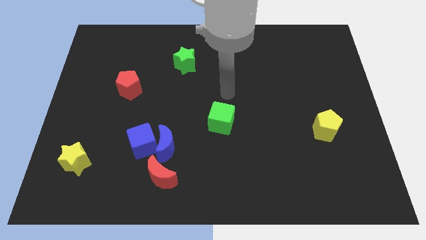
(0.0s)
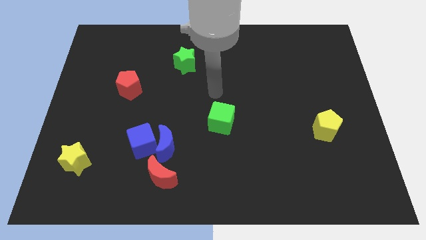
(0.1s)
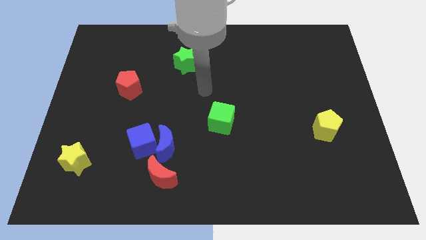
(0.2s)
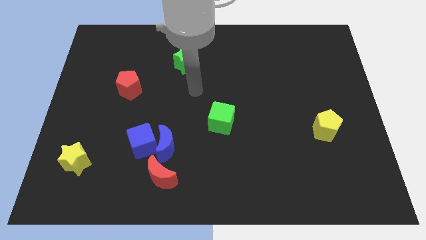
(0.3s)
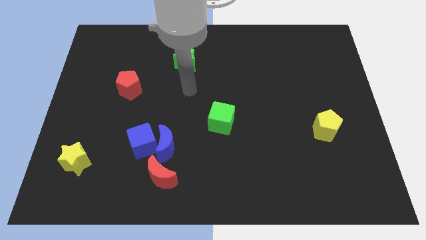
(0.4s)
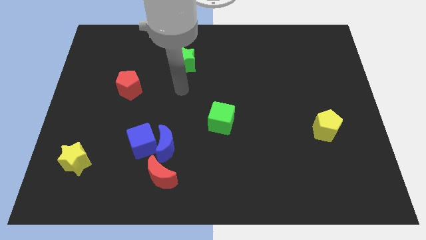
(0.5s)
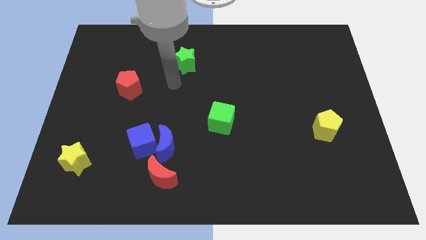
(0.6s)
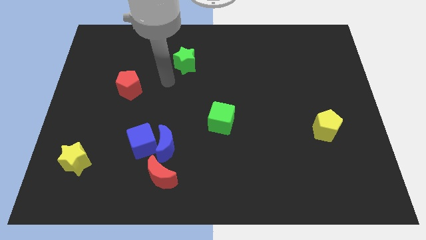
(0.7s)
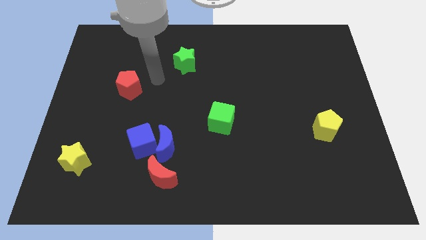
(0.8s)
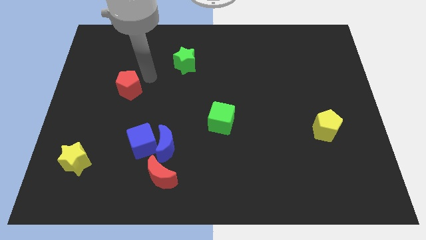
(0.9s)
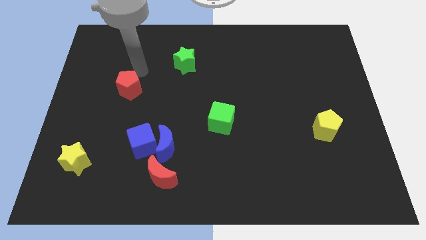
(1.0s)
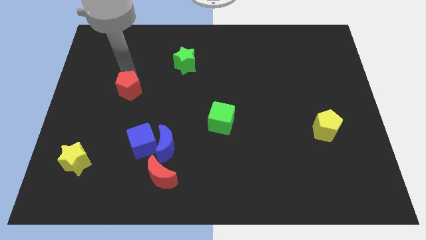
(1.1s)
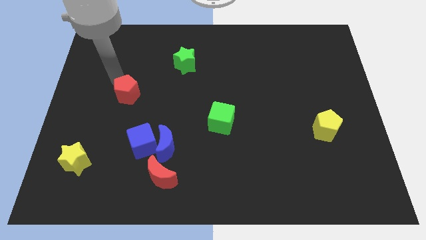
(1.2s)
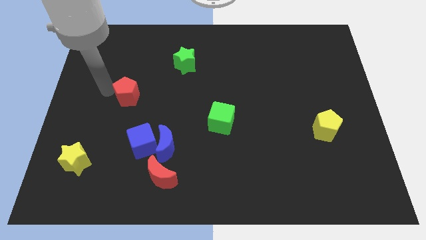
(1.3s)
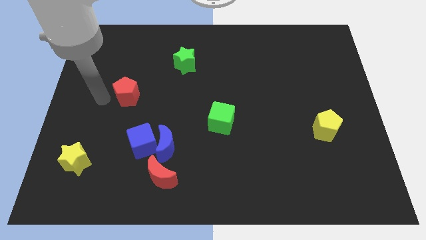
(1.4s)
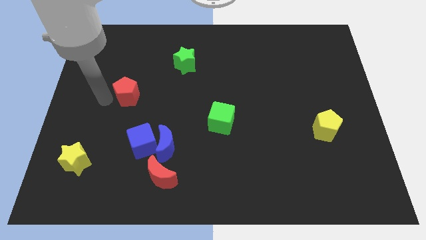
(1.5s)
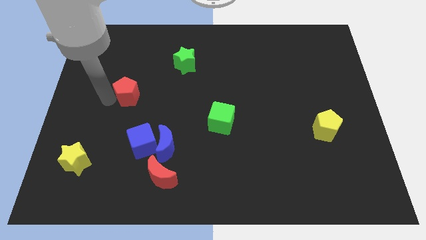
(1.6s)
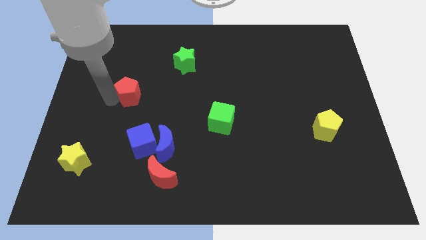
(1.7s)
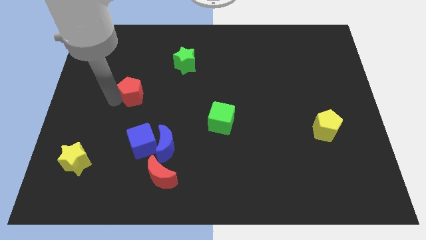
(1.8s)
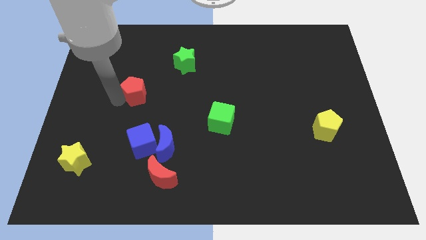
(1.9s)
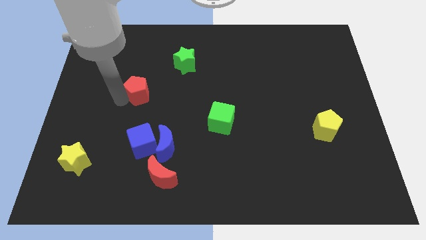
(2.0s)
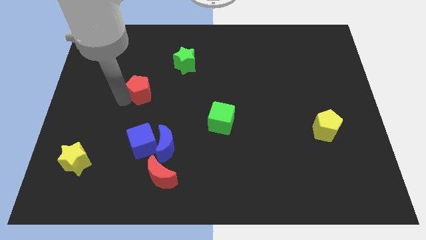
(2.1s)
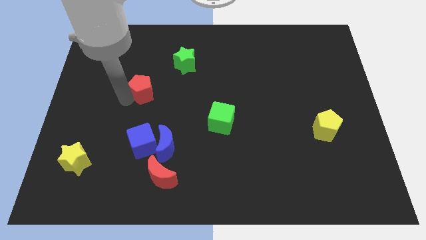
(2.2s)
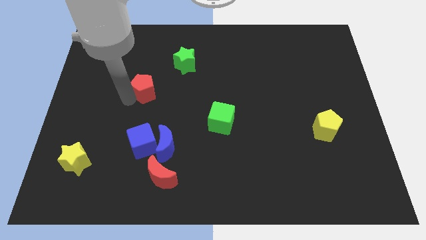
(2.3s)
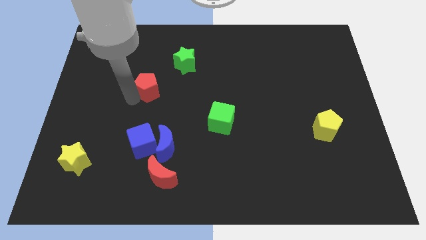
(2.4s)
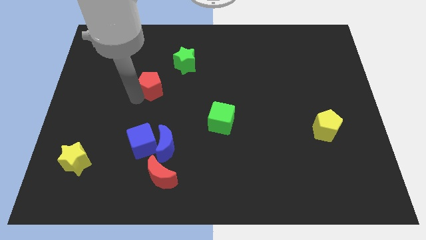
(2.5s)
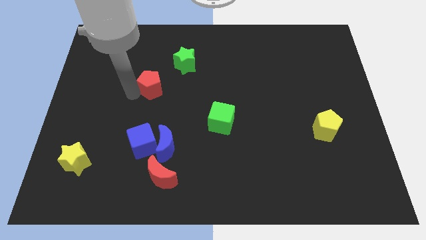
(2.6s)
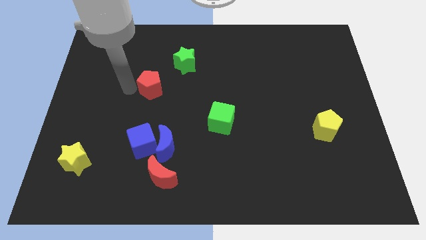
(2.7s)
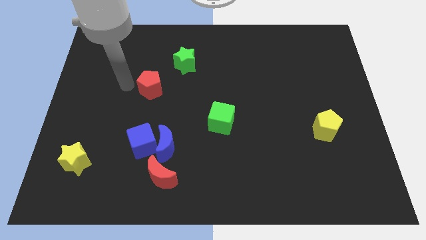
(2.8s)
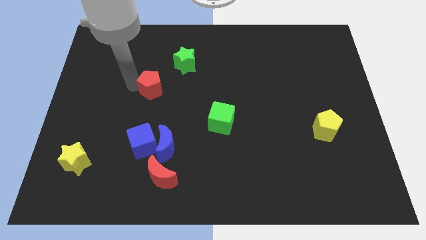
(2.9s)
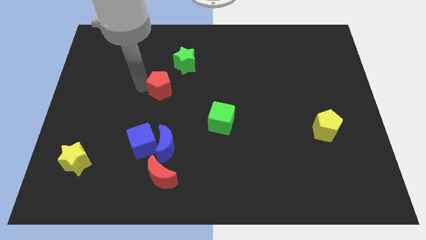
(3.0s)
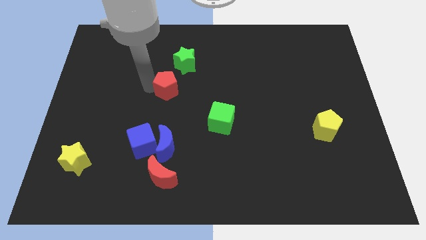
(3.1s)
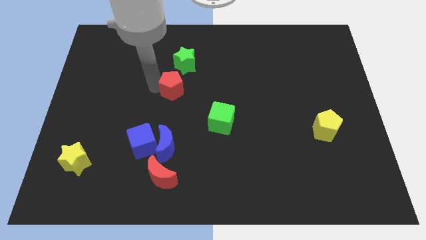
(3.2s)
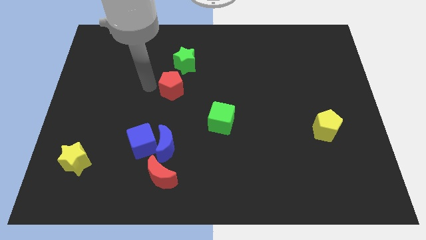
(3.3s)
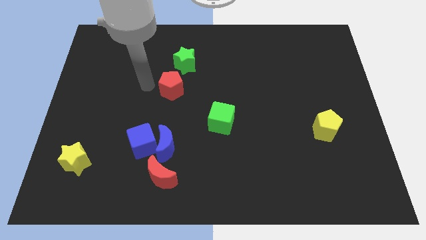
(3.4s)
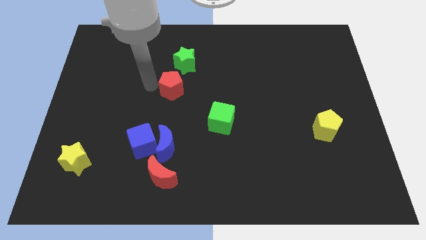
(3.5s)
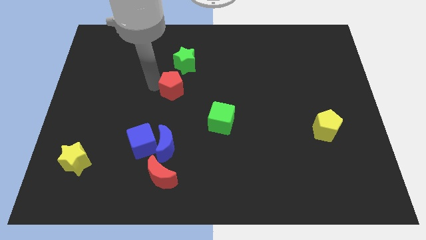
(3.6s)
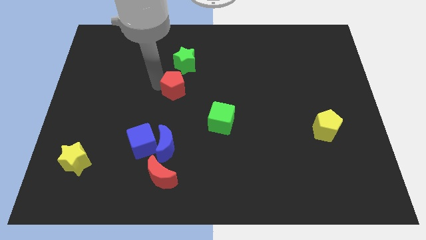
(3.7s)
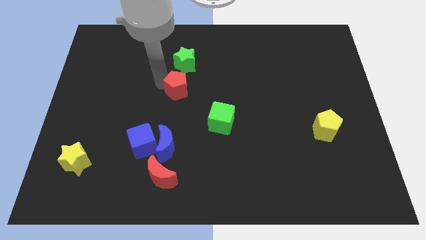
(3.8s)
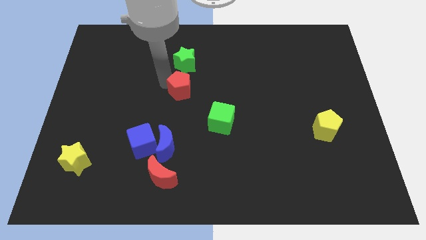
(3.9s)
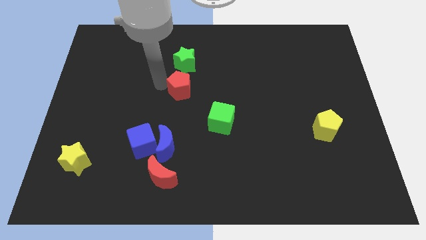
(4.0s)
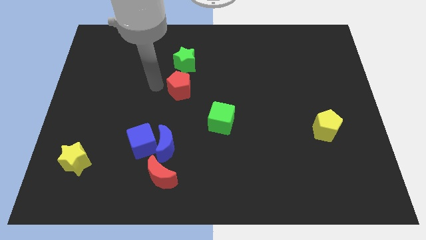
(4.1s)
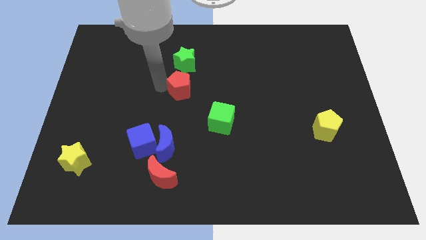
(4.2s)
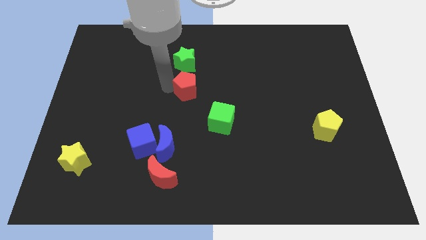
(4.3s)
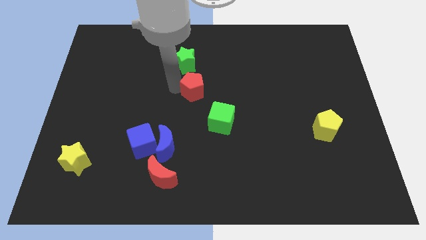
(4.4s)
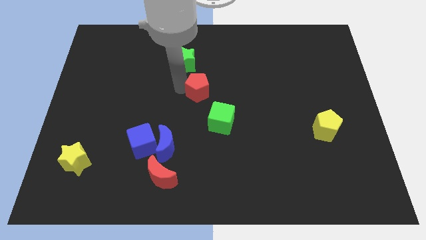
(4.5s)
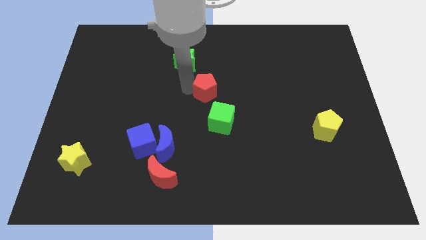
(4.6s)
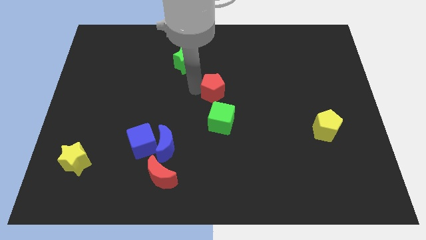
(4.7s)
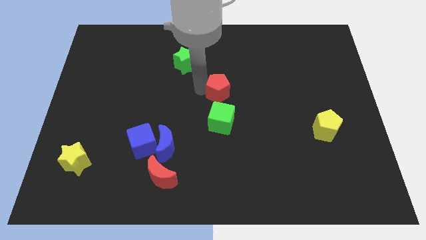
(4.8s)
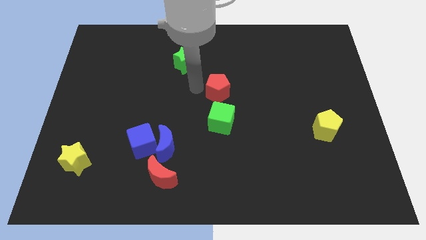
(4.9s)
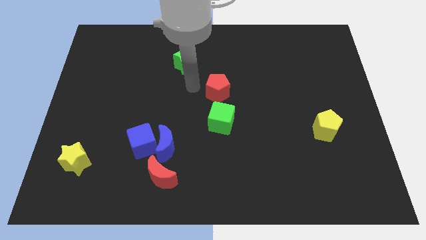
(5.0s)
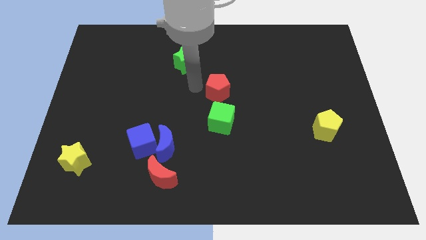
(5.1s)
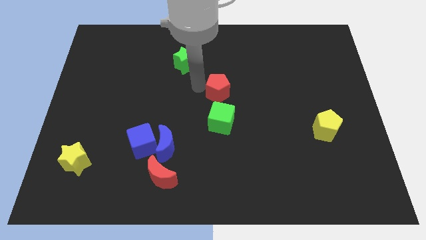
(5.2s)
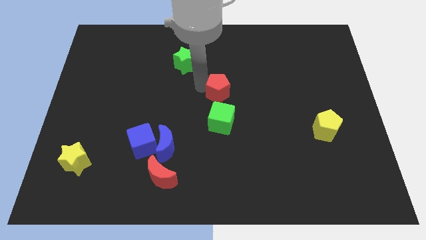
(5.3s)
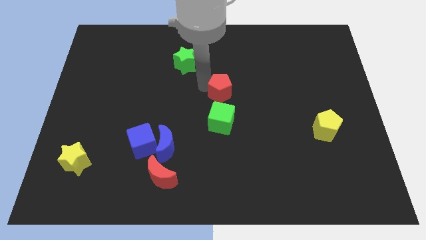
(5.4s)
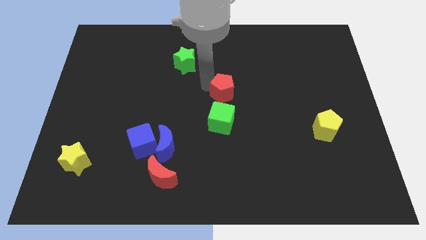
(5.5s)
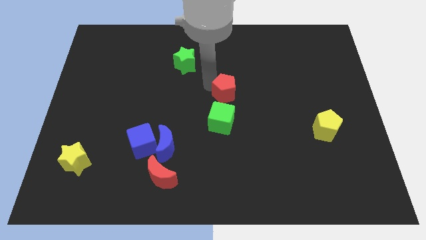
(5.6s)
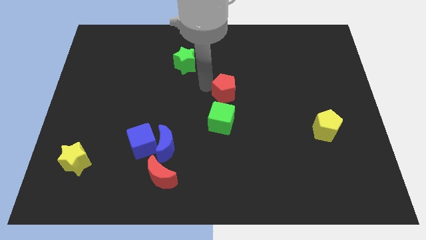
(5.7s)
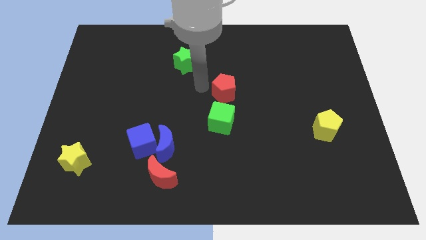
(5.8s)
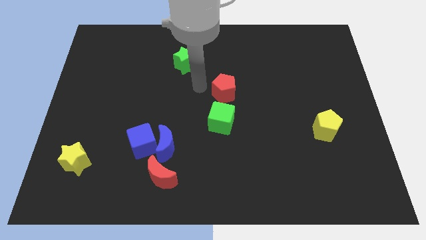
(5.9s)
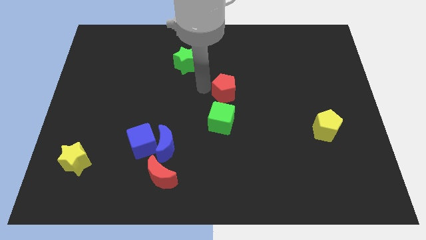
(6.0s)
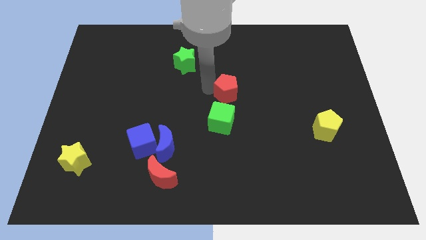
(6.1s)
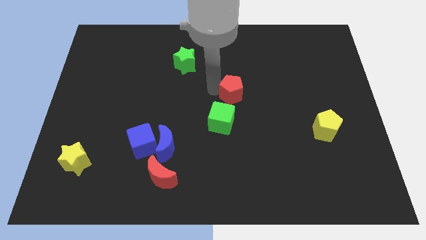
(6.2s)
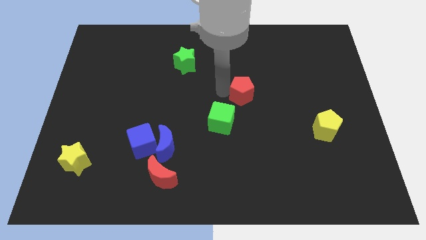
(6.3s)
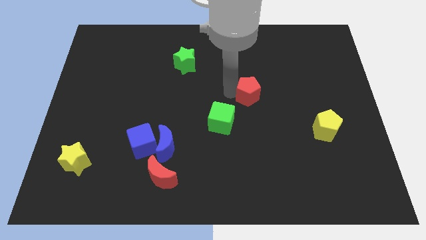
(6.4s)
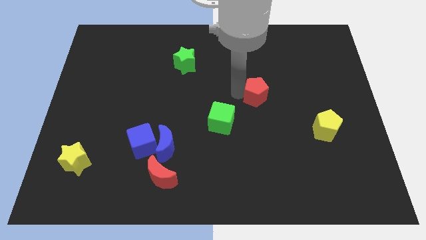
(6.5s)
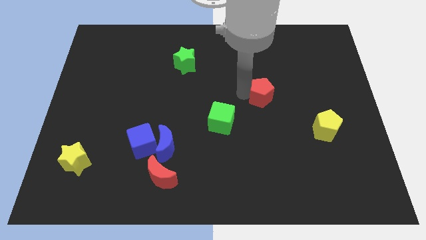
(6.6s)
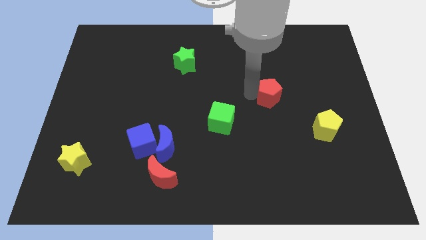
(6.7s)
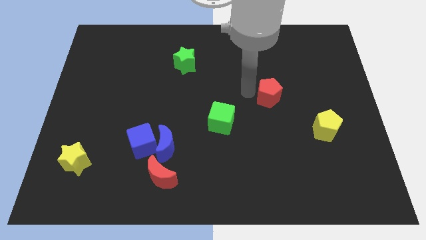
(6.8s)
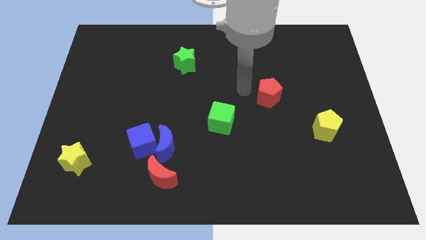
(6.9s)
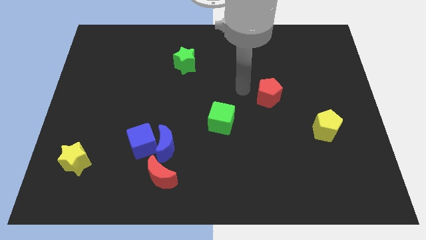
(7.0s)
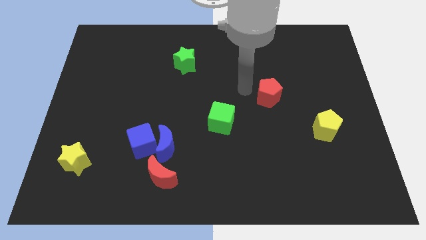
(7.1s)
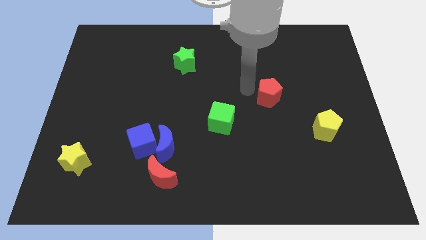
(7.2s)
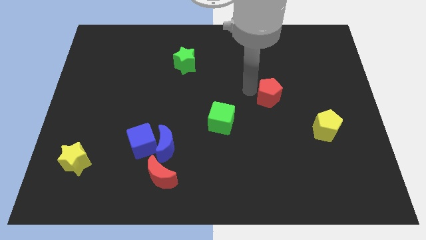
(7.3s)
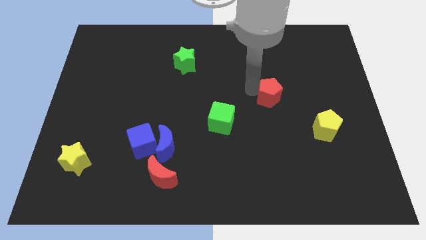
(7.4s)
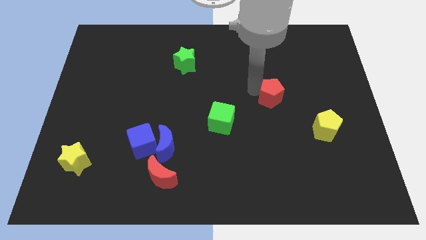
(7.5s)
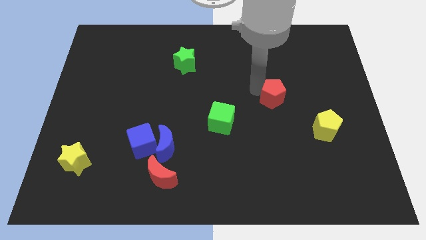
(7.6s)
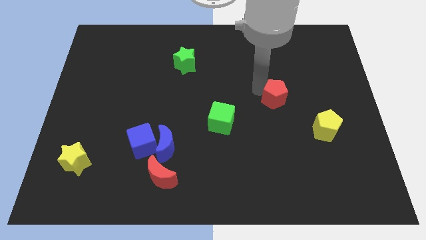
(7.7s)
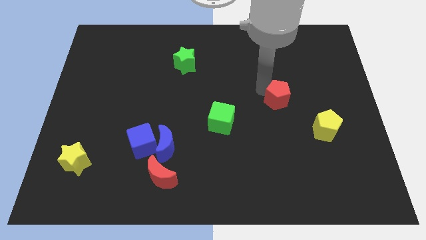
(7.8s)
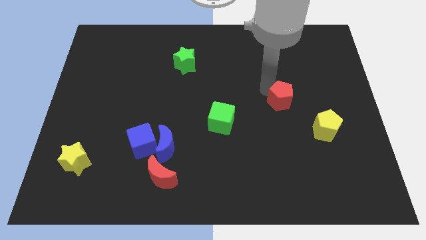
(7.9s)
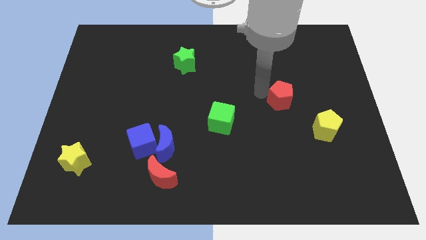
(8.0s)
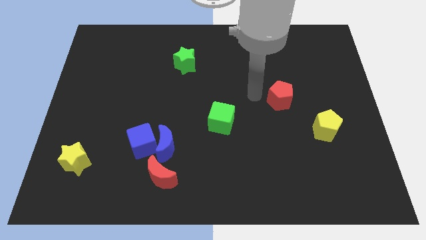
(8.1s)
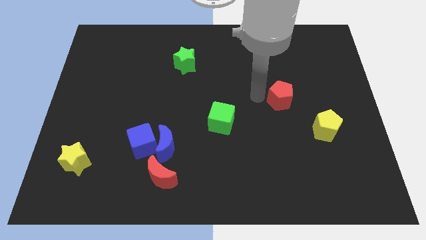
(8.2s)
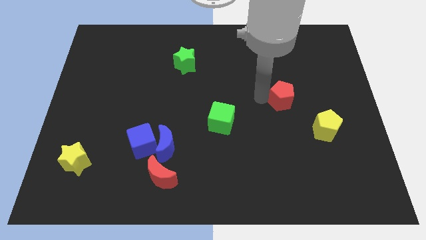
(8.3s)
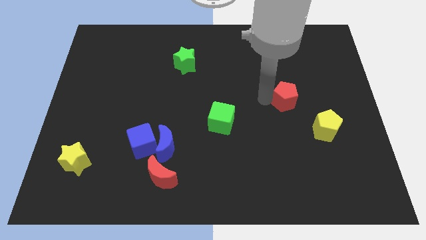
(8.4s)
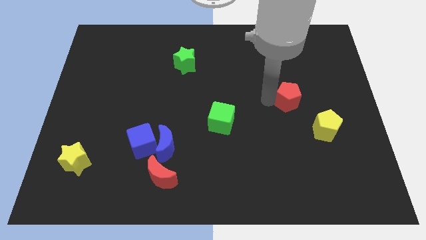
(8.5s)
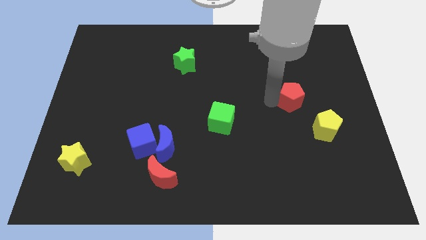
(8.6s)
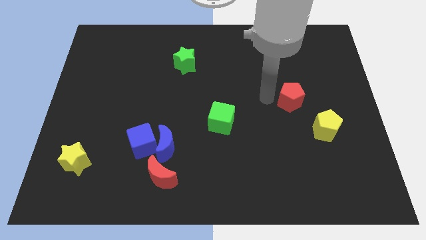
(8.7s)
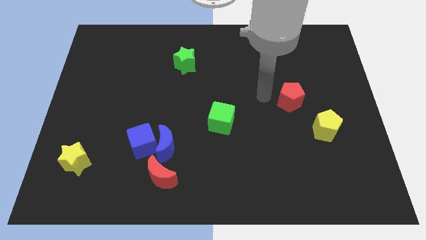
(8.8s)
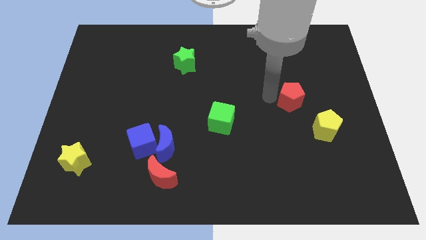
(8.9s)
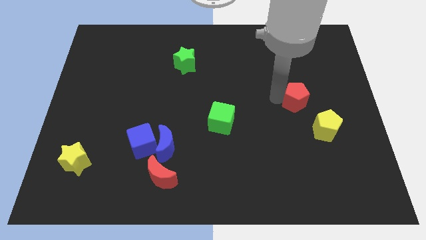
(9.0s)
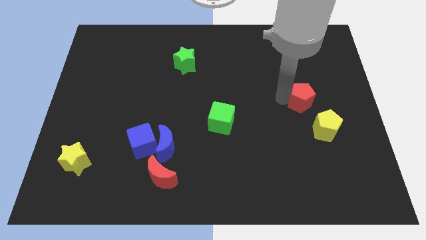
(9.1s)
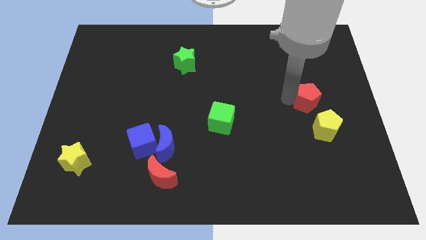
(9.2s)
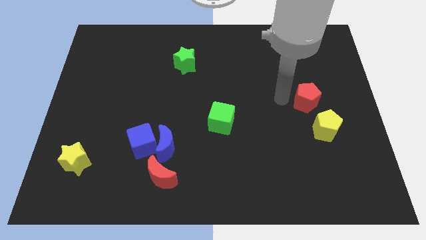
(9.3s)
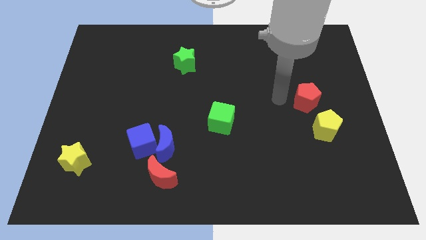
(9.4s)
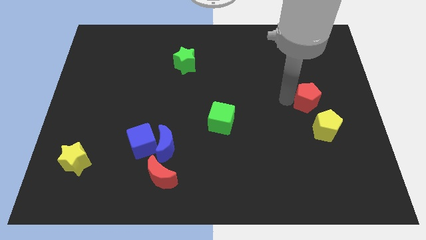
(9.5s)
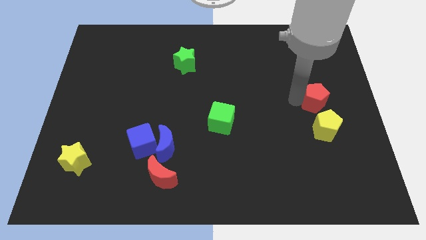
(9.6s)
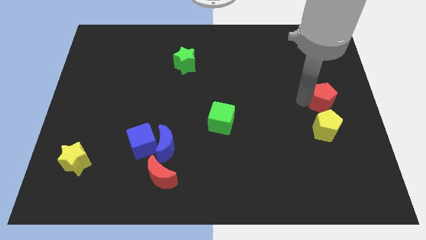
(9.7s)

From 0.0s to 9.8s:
move the red pentagon to the right side
